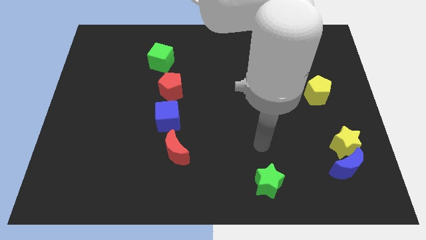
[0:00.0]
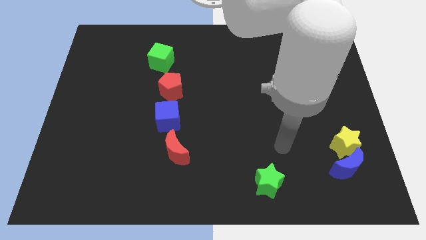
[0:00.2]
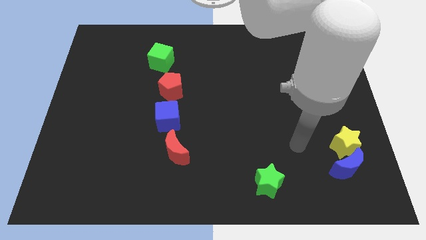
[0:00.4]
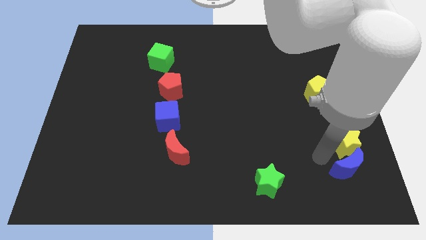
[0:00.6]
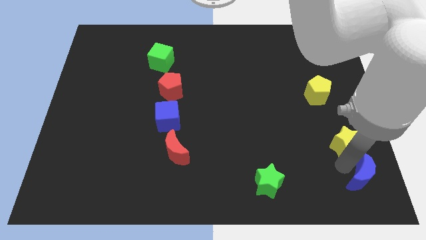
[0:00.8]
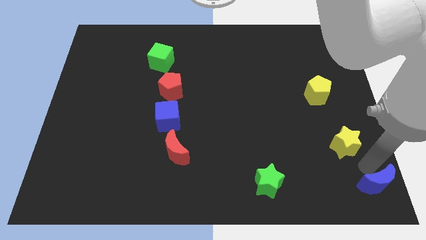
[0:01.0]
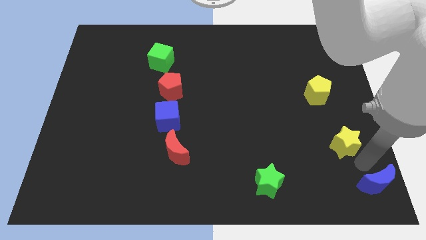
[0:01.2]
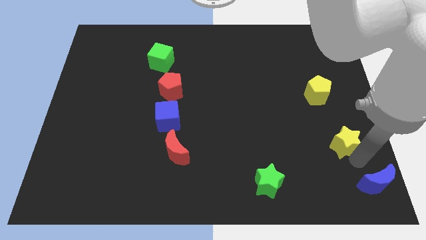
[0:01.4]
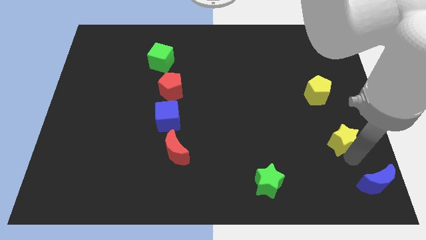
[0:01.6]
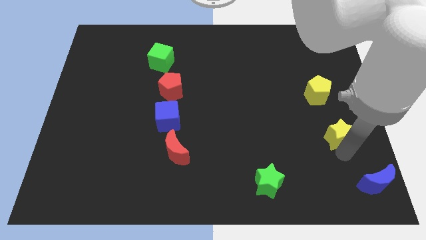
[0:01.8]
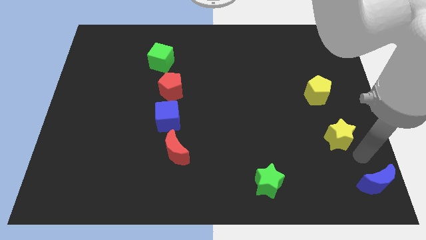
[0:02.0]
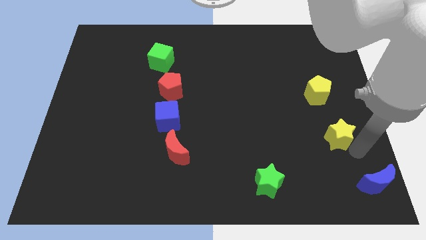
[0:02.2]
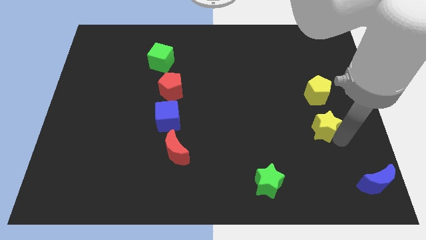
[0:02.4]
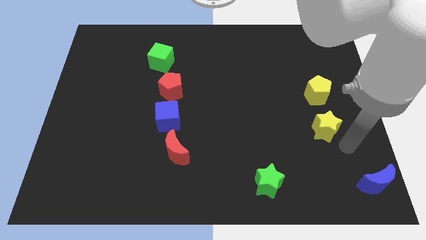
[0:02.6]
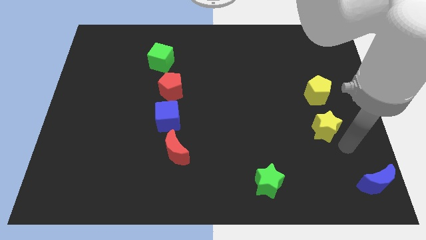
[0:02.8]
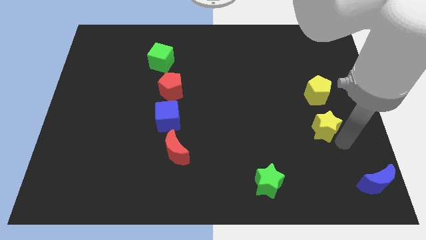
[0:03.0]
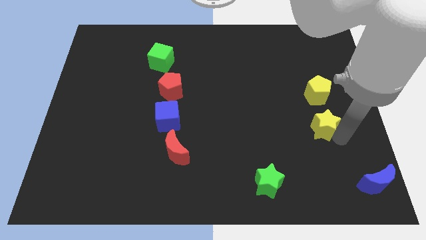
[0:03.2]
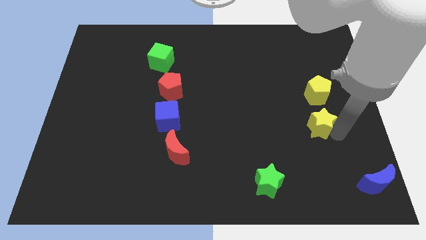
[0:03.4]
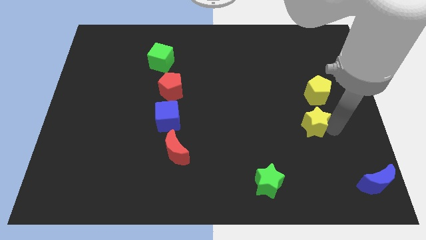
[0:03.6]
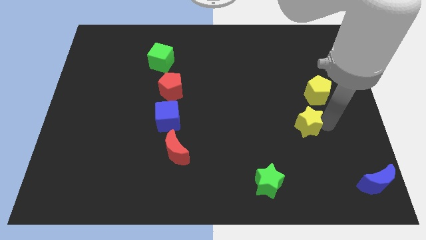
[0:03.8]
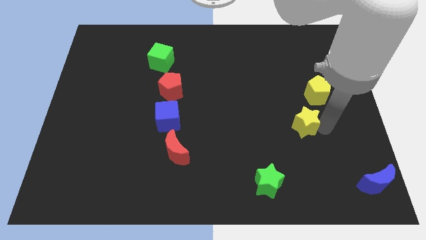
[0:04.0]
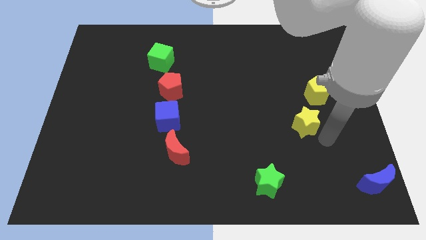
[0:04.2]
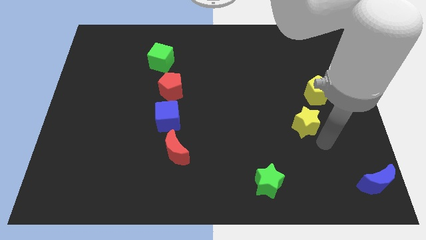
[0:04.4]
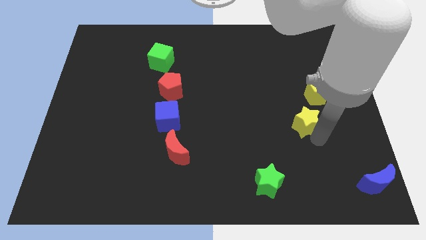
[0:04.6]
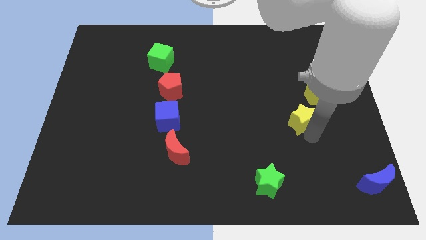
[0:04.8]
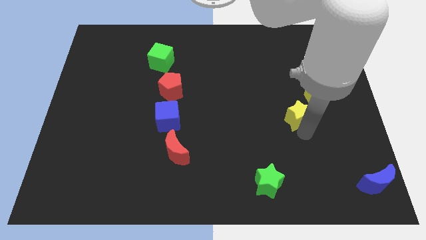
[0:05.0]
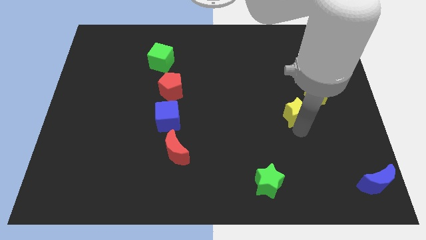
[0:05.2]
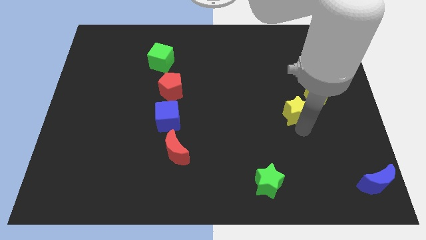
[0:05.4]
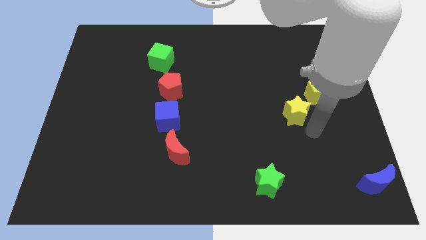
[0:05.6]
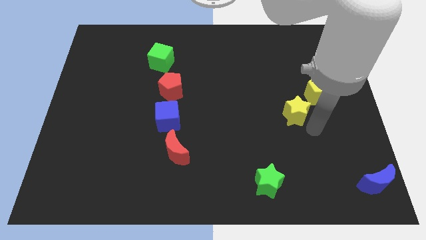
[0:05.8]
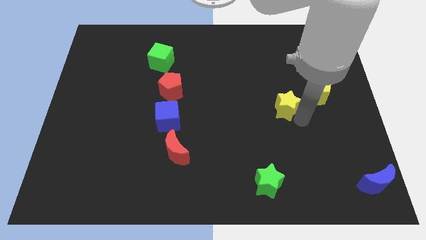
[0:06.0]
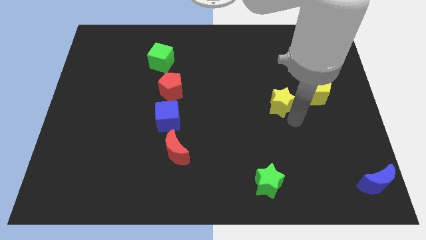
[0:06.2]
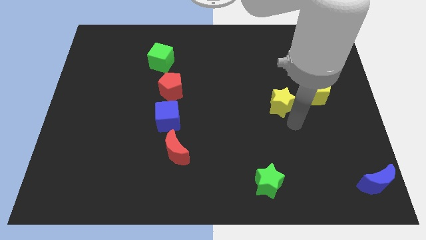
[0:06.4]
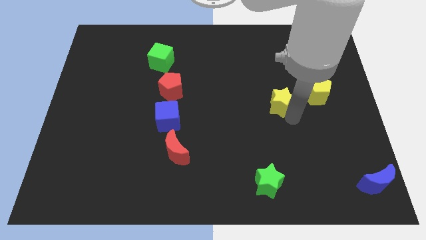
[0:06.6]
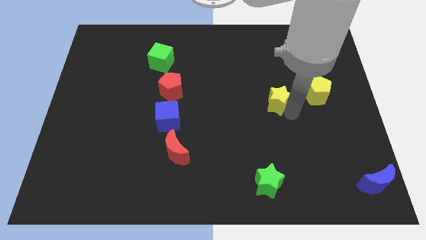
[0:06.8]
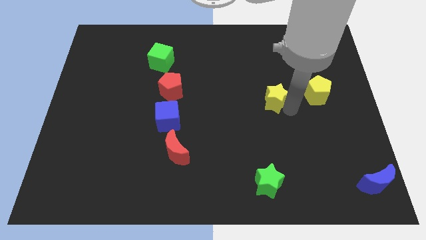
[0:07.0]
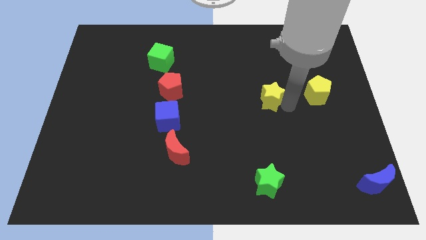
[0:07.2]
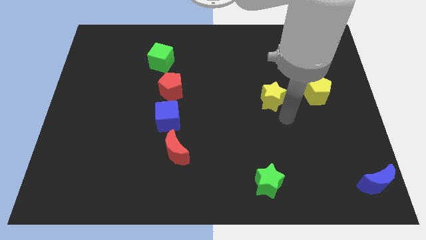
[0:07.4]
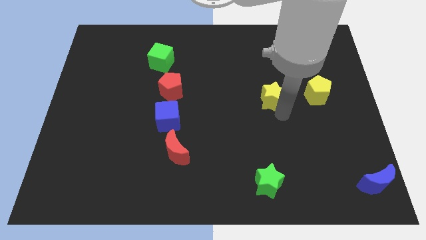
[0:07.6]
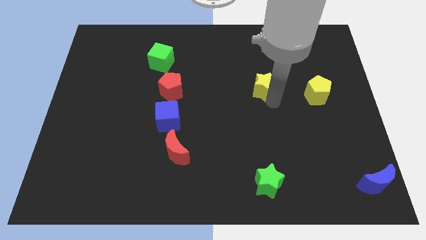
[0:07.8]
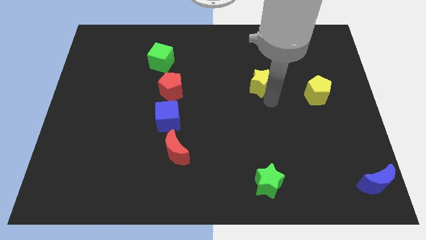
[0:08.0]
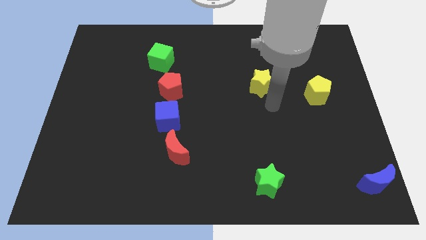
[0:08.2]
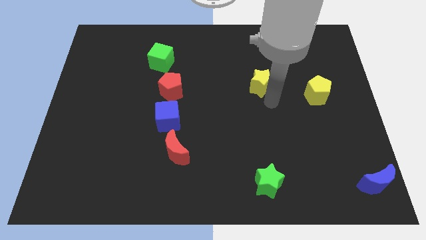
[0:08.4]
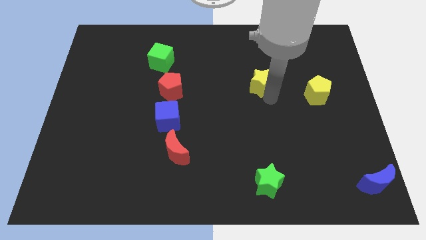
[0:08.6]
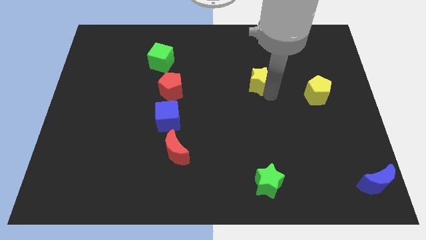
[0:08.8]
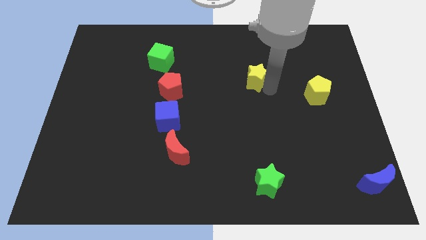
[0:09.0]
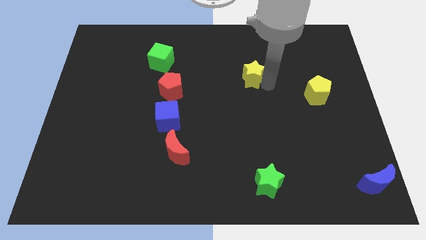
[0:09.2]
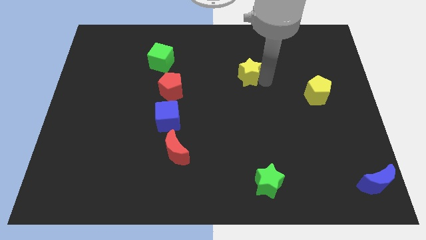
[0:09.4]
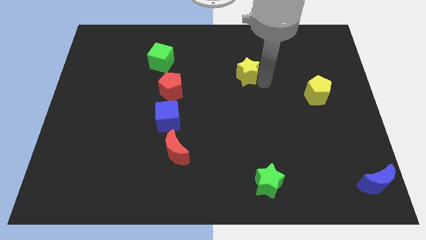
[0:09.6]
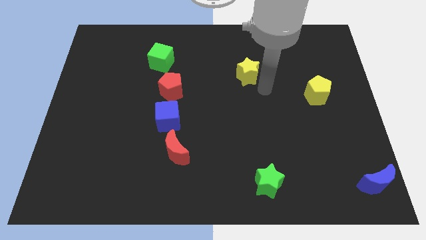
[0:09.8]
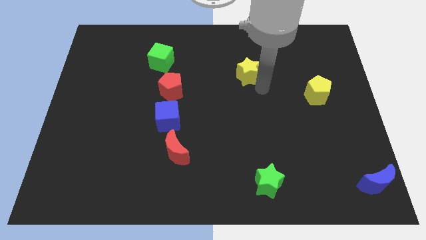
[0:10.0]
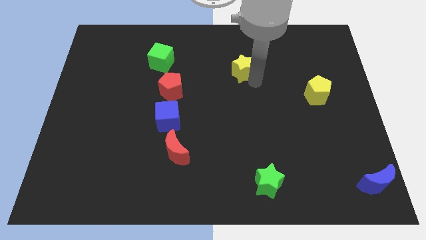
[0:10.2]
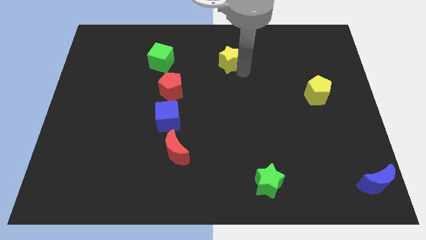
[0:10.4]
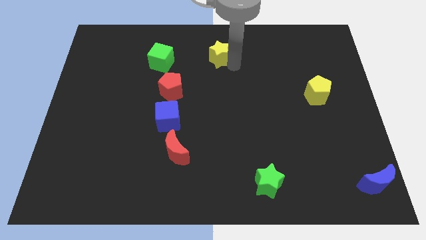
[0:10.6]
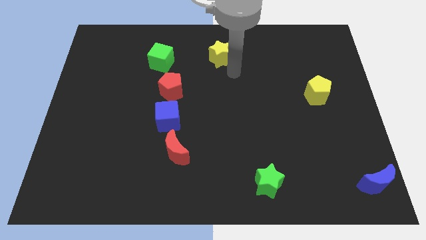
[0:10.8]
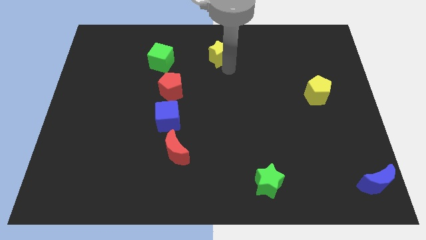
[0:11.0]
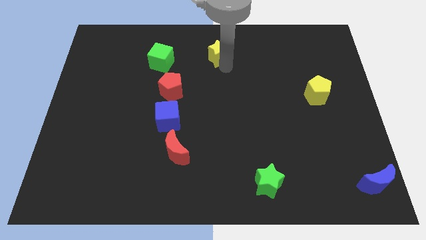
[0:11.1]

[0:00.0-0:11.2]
slide the yellow star to the top

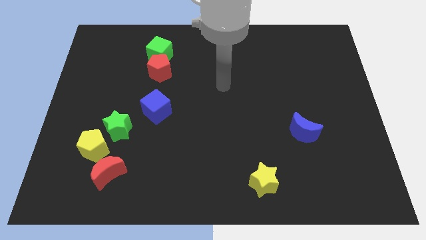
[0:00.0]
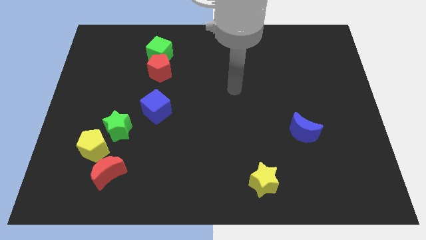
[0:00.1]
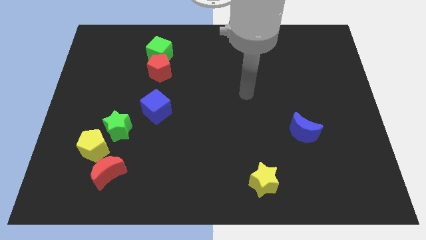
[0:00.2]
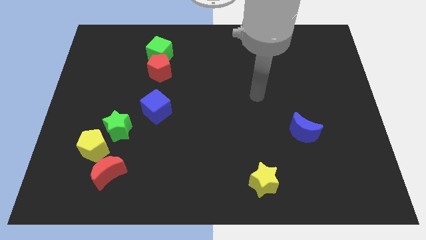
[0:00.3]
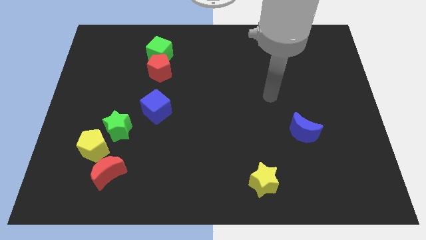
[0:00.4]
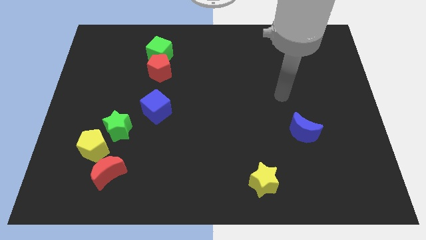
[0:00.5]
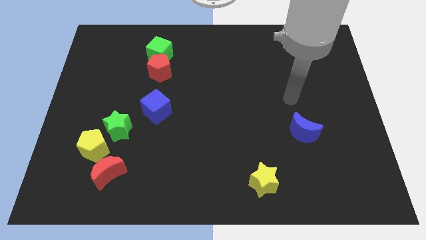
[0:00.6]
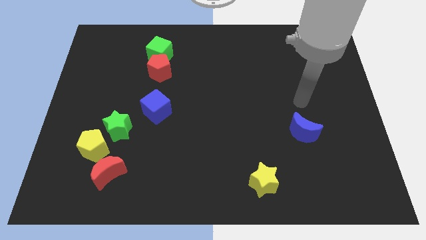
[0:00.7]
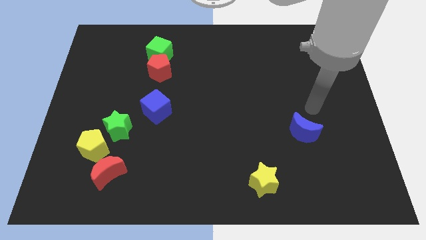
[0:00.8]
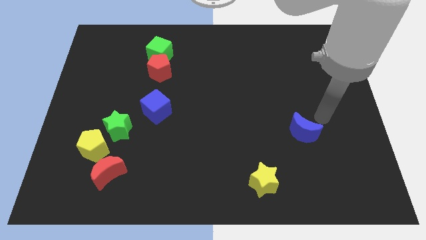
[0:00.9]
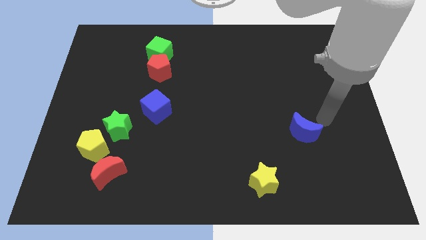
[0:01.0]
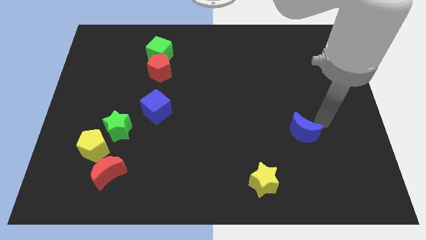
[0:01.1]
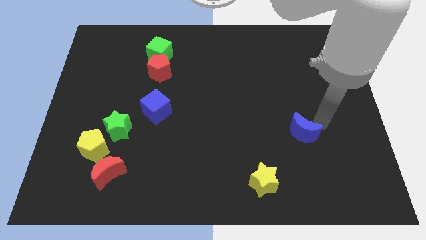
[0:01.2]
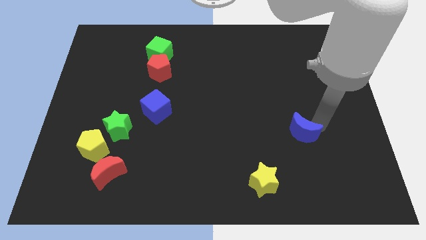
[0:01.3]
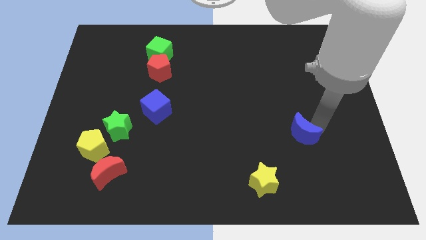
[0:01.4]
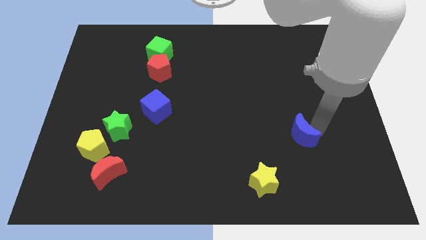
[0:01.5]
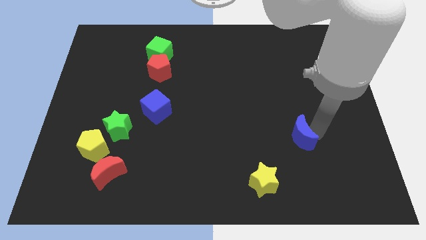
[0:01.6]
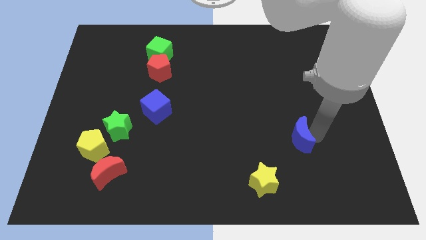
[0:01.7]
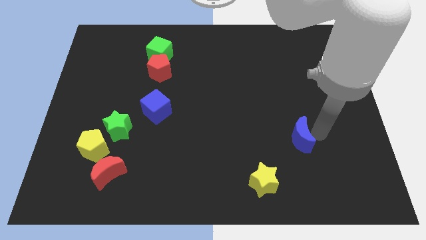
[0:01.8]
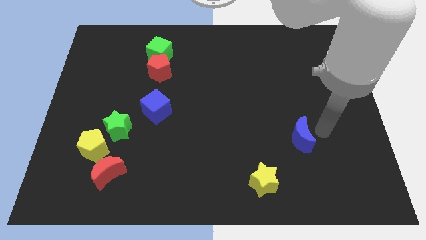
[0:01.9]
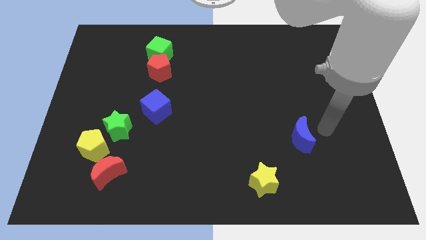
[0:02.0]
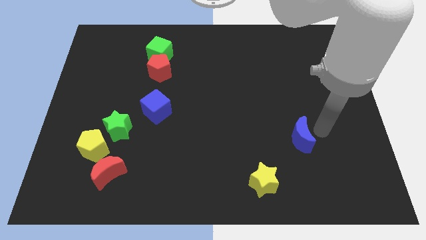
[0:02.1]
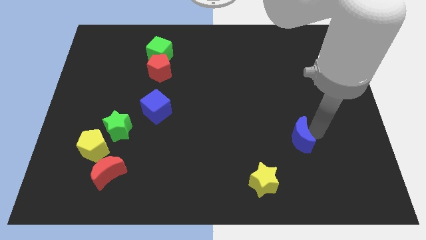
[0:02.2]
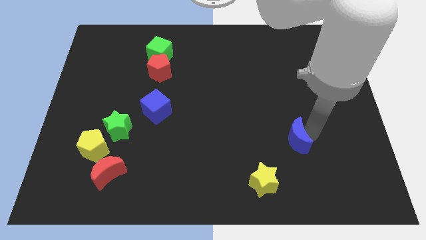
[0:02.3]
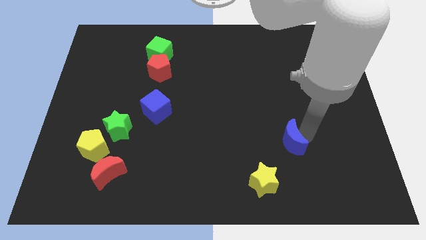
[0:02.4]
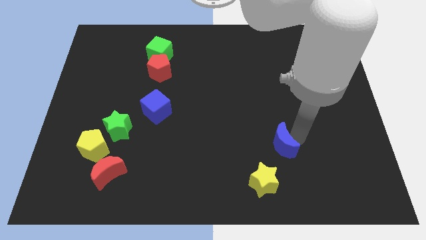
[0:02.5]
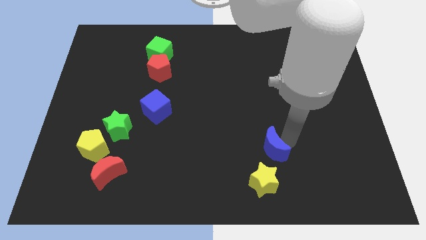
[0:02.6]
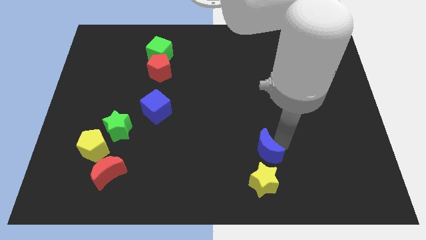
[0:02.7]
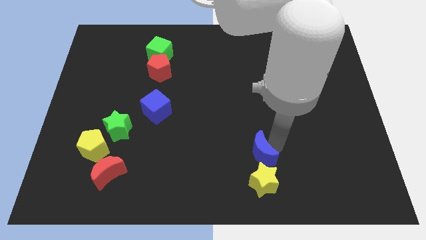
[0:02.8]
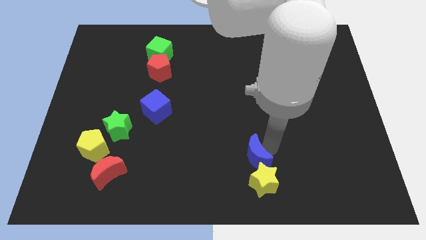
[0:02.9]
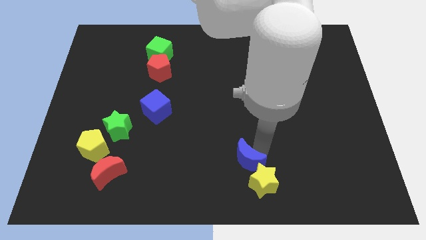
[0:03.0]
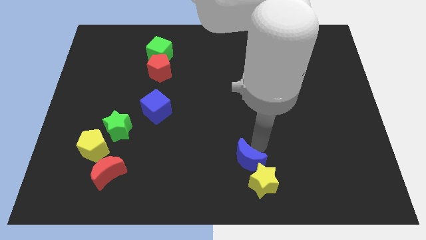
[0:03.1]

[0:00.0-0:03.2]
put the blue moon to the bottom
